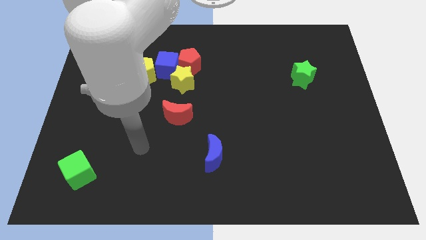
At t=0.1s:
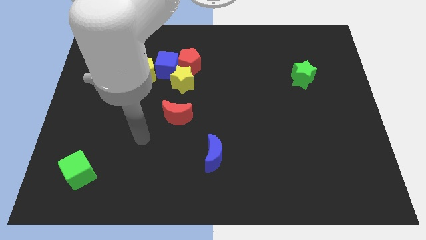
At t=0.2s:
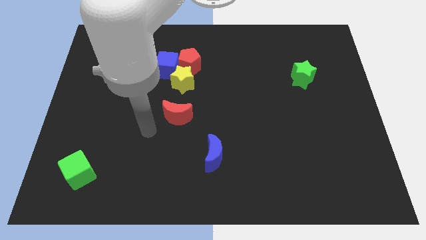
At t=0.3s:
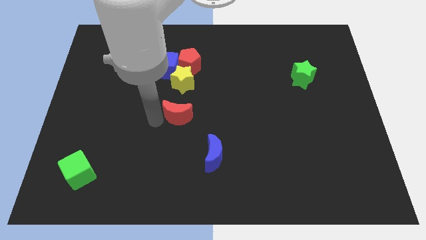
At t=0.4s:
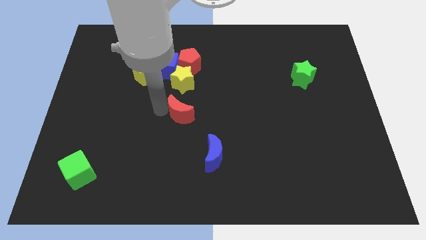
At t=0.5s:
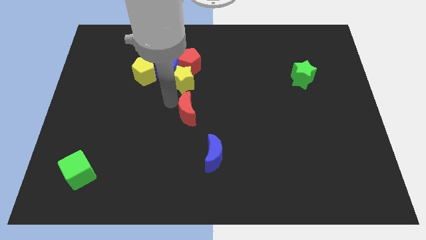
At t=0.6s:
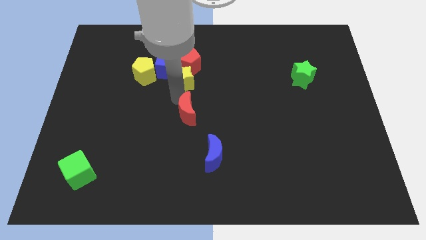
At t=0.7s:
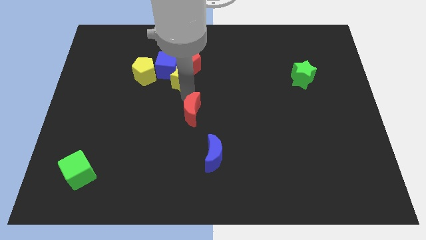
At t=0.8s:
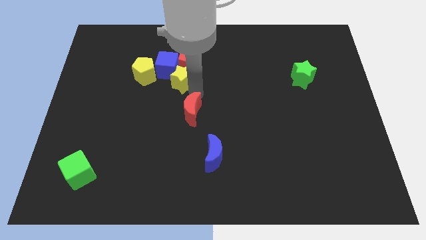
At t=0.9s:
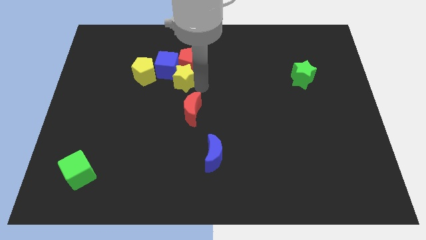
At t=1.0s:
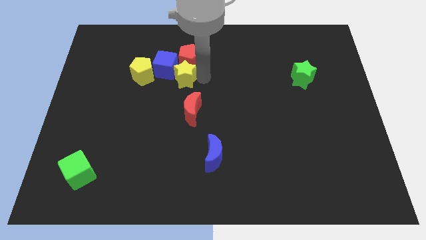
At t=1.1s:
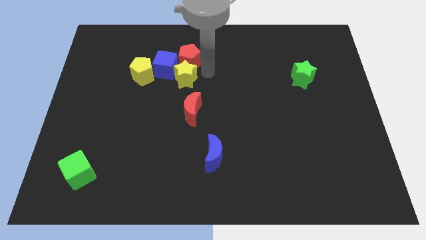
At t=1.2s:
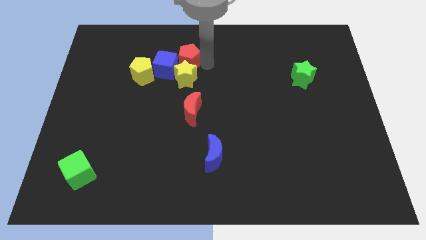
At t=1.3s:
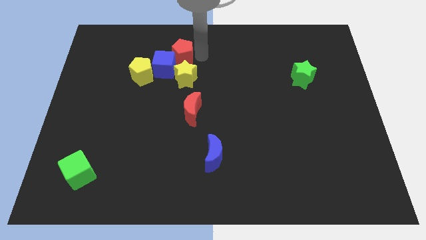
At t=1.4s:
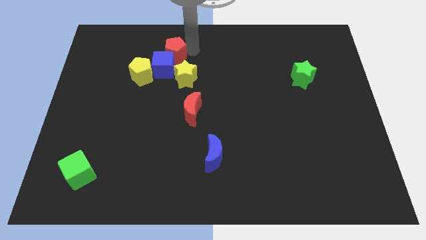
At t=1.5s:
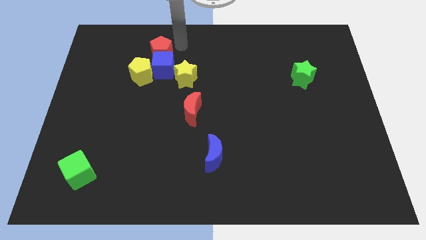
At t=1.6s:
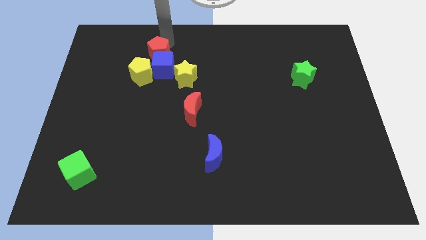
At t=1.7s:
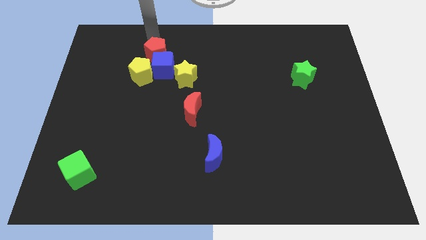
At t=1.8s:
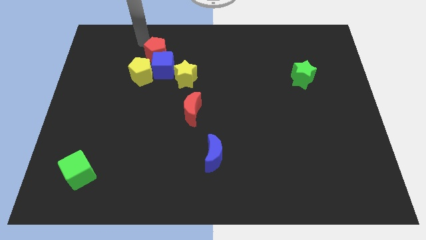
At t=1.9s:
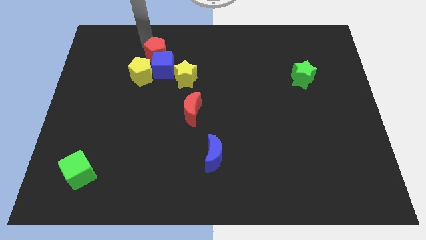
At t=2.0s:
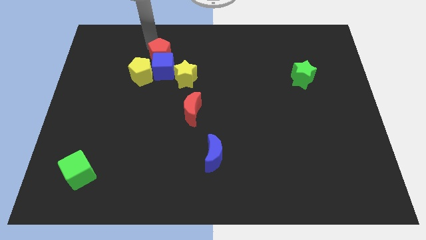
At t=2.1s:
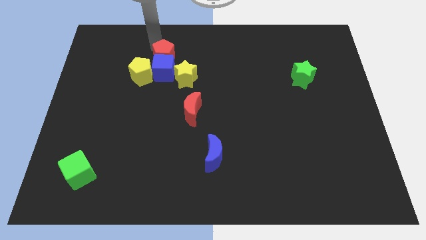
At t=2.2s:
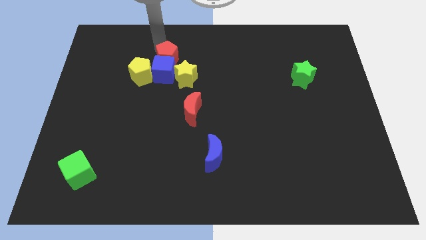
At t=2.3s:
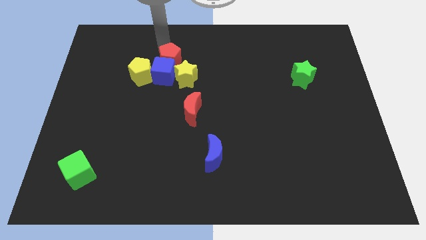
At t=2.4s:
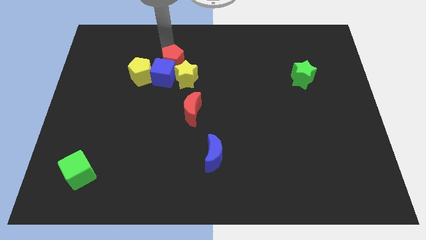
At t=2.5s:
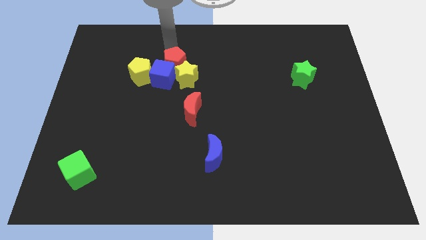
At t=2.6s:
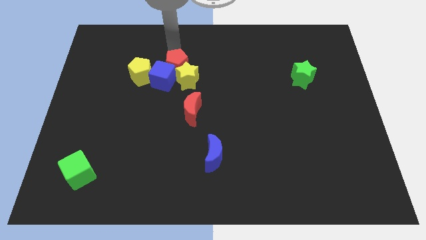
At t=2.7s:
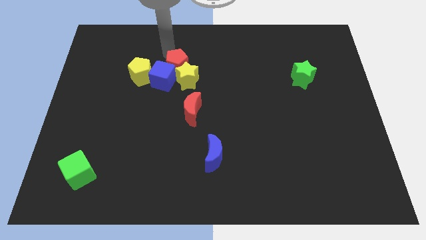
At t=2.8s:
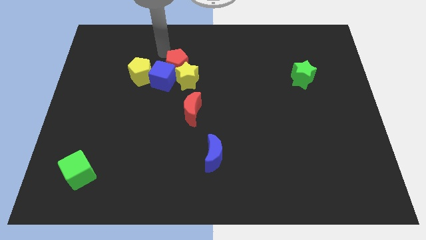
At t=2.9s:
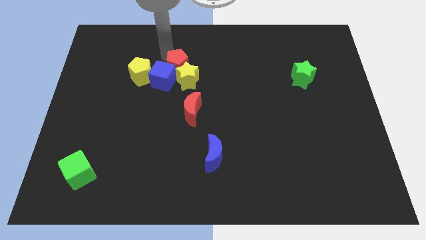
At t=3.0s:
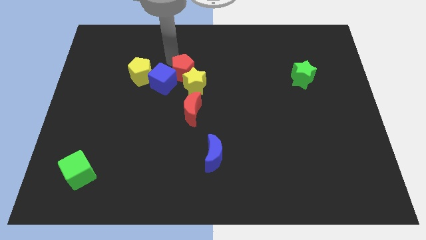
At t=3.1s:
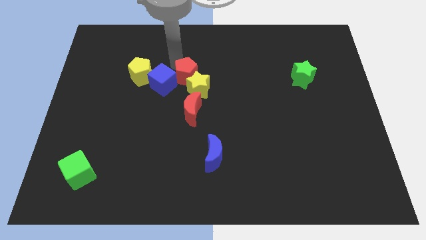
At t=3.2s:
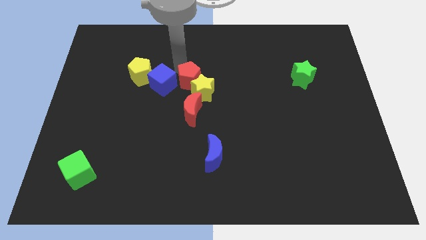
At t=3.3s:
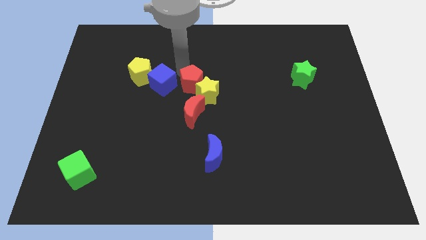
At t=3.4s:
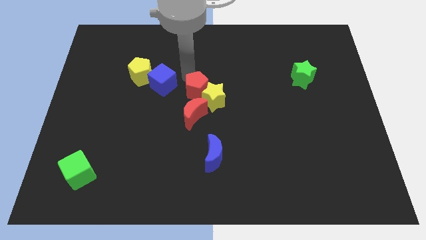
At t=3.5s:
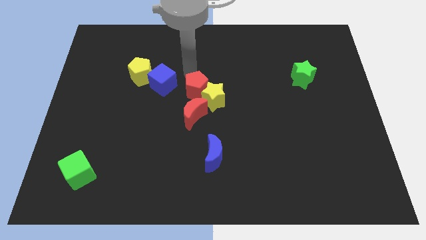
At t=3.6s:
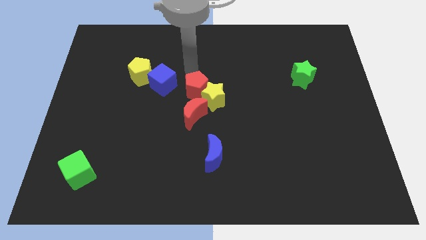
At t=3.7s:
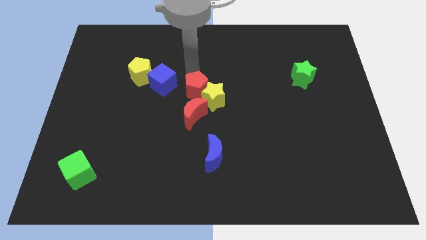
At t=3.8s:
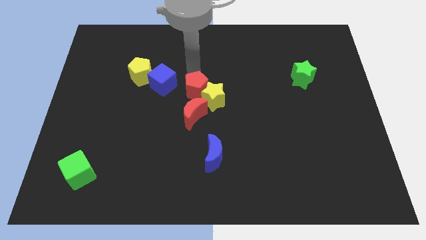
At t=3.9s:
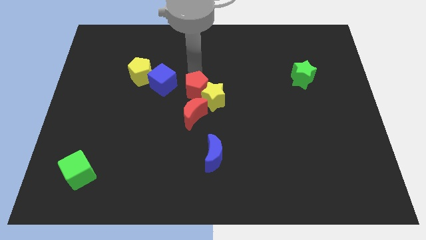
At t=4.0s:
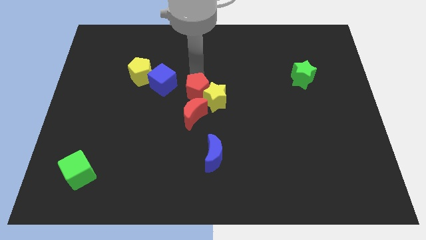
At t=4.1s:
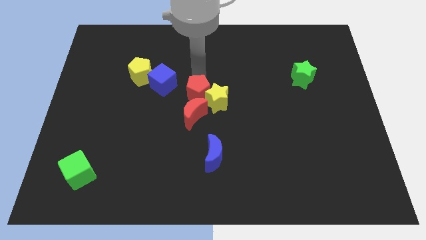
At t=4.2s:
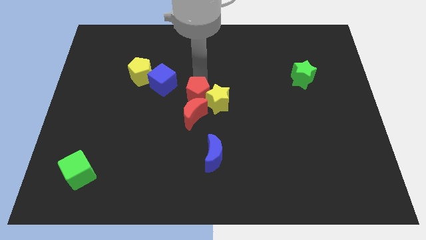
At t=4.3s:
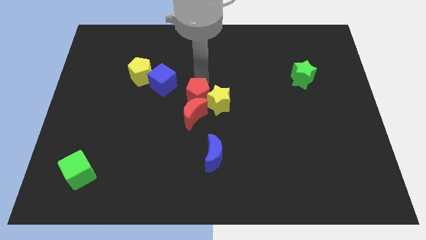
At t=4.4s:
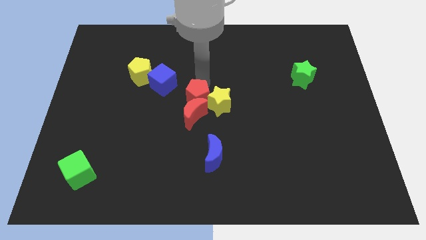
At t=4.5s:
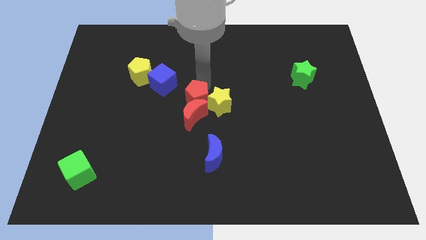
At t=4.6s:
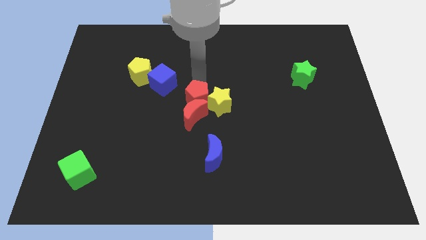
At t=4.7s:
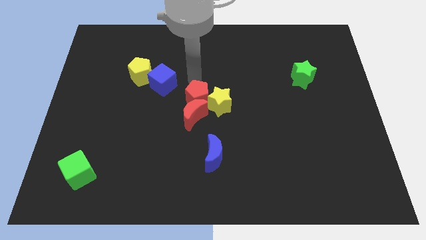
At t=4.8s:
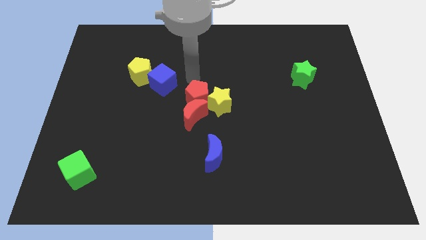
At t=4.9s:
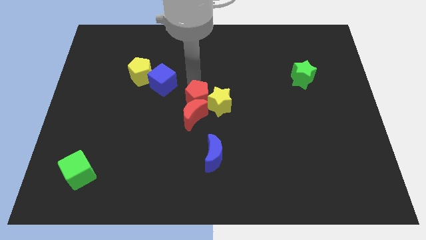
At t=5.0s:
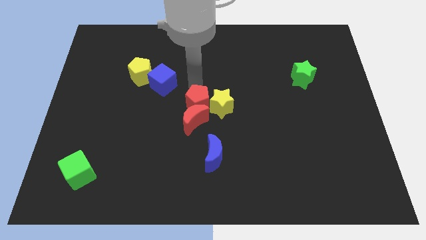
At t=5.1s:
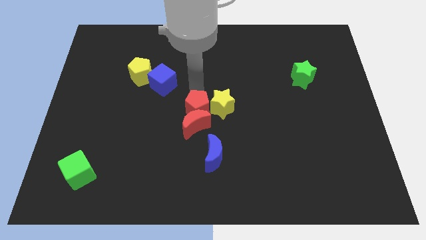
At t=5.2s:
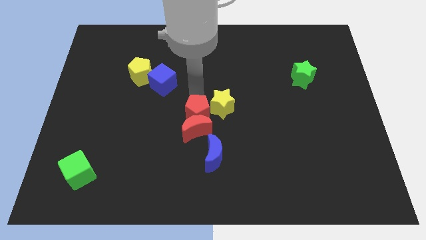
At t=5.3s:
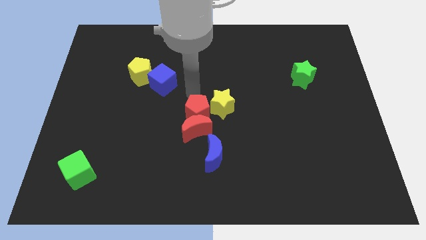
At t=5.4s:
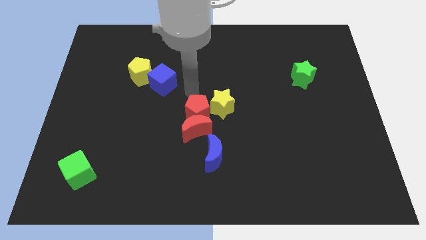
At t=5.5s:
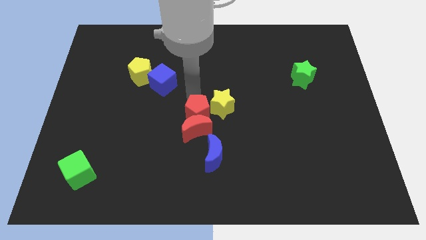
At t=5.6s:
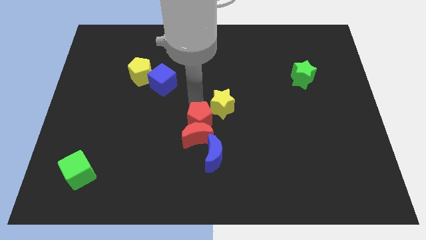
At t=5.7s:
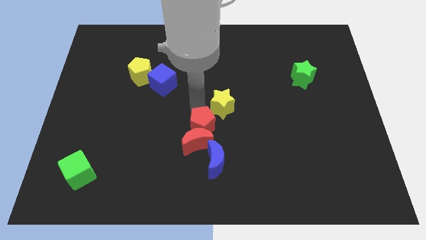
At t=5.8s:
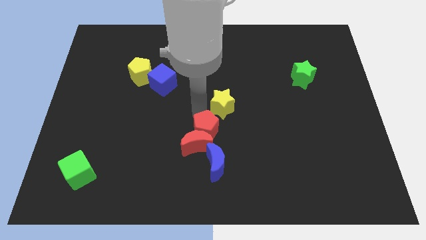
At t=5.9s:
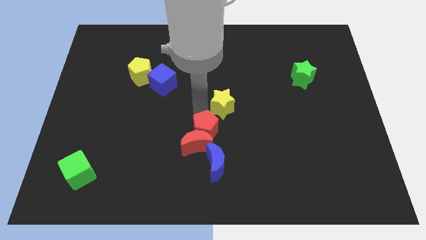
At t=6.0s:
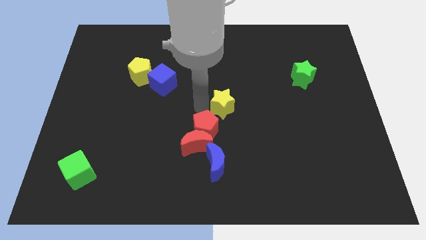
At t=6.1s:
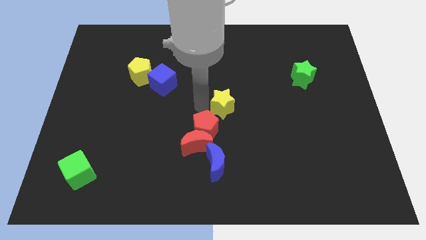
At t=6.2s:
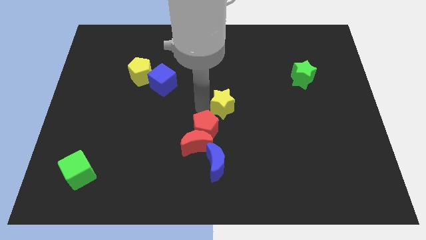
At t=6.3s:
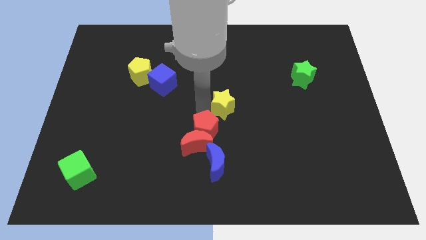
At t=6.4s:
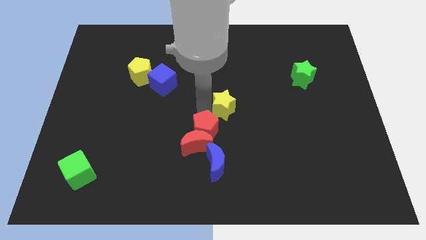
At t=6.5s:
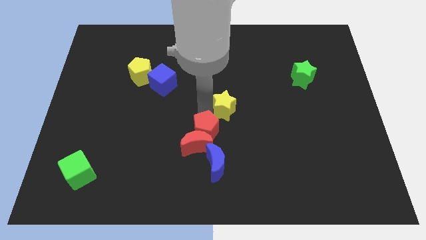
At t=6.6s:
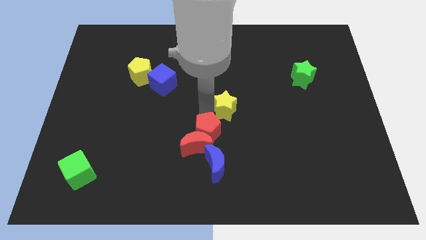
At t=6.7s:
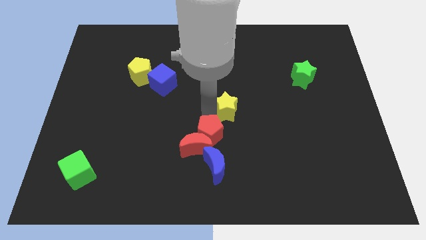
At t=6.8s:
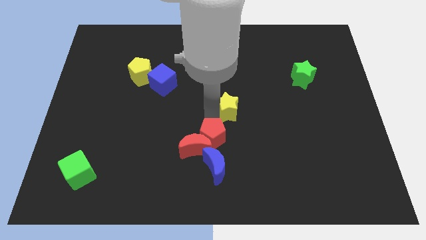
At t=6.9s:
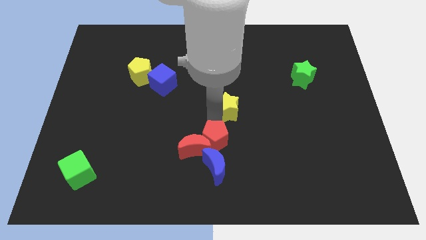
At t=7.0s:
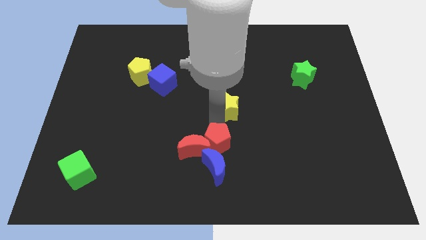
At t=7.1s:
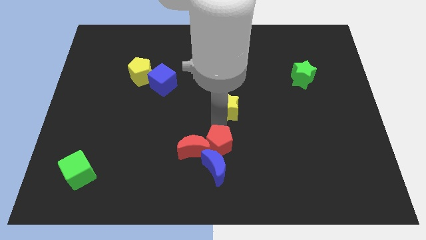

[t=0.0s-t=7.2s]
push the red pentagon close to the blue moon

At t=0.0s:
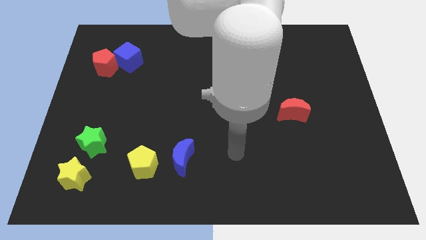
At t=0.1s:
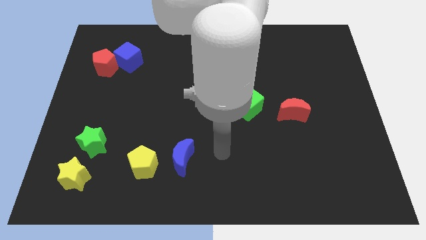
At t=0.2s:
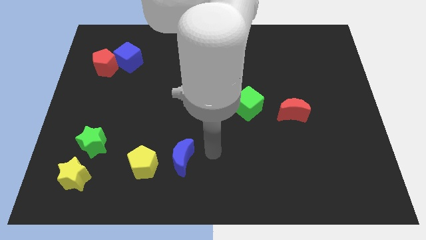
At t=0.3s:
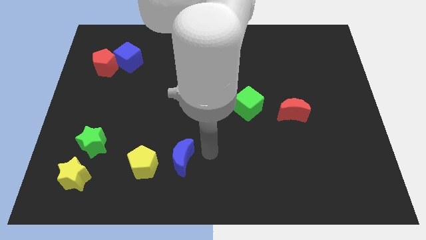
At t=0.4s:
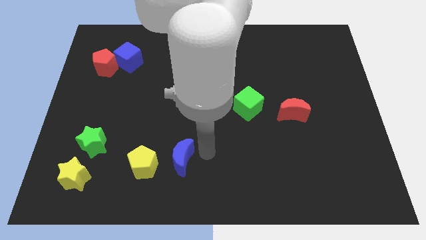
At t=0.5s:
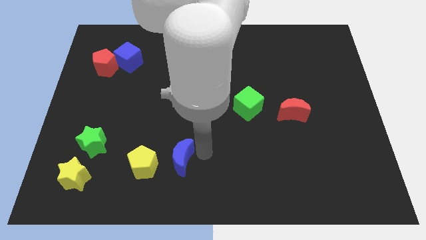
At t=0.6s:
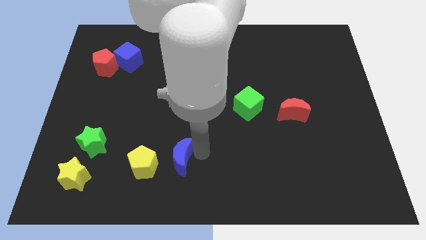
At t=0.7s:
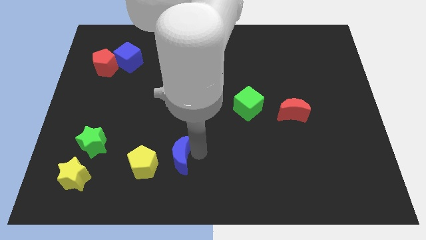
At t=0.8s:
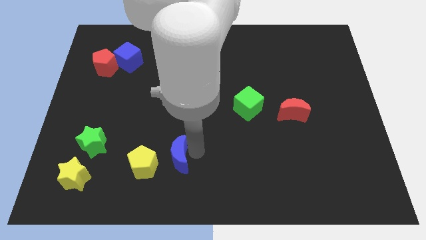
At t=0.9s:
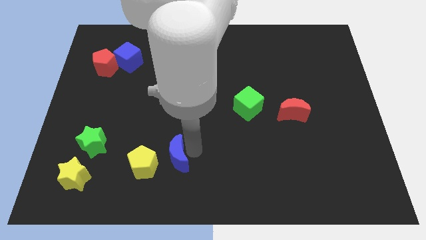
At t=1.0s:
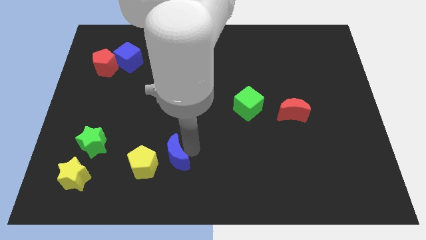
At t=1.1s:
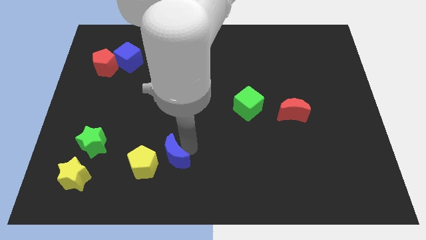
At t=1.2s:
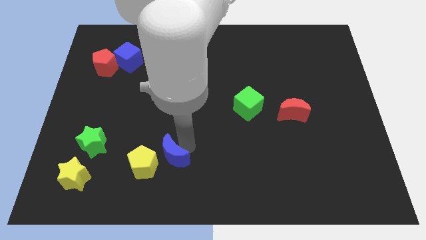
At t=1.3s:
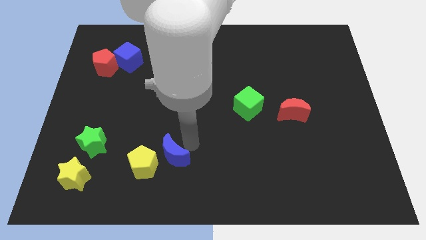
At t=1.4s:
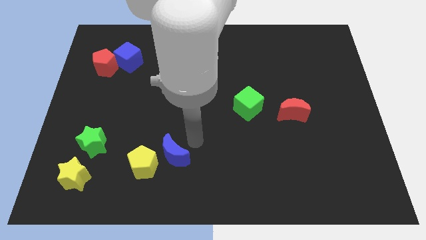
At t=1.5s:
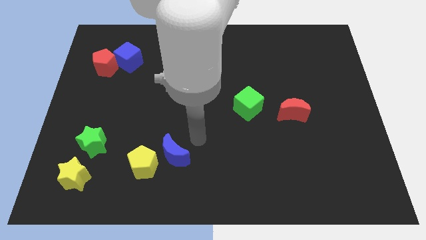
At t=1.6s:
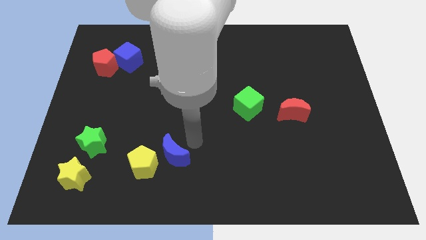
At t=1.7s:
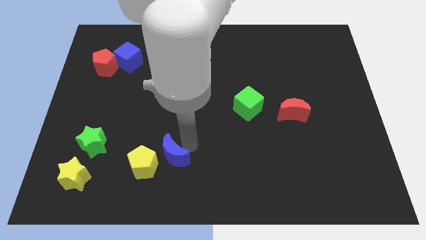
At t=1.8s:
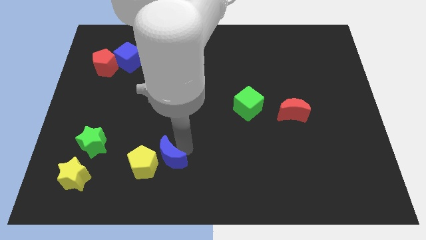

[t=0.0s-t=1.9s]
move the blue moon next to the yellow pentagon
